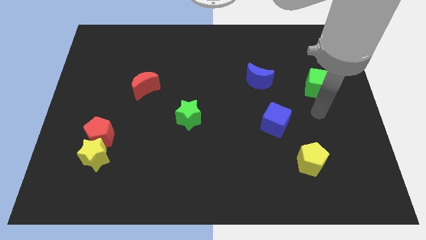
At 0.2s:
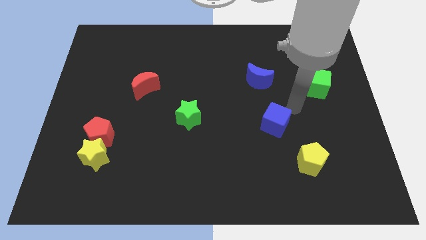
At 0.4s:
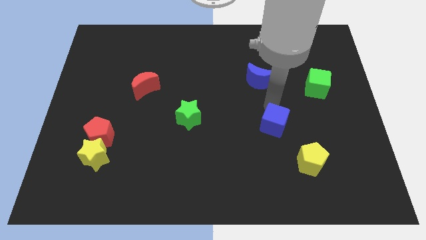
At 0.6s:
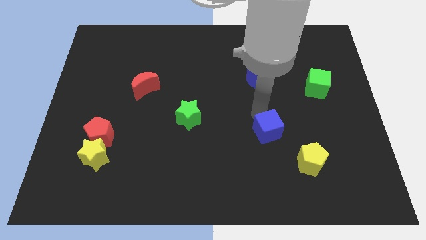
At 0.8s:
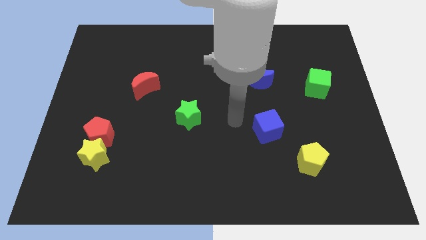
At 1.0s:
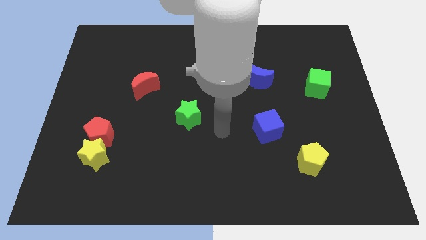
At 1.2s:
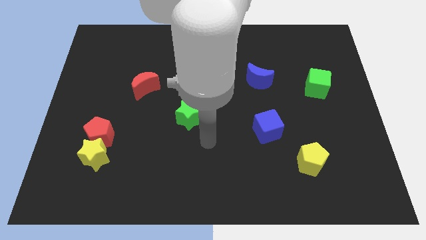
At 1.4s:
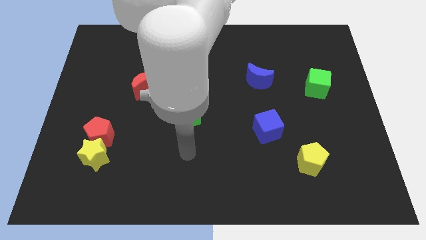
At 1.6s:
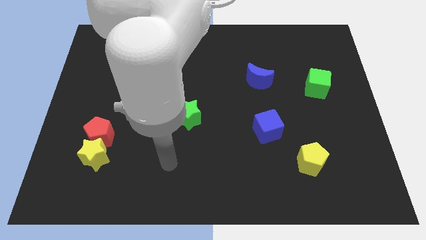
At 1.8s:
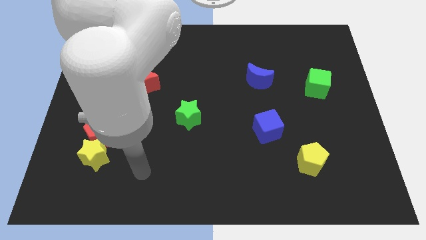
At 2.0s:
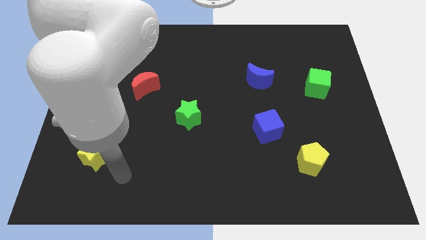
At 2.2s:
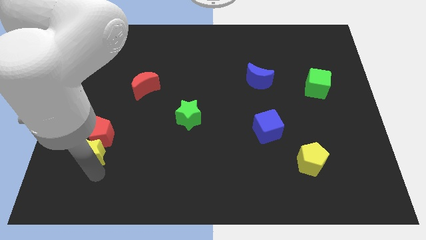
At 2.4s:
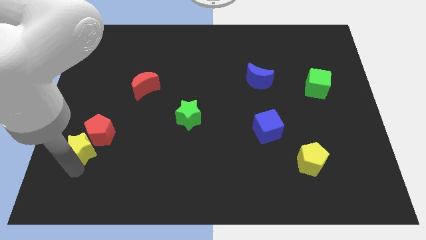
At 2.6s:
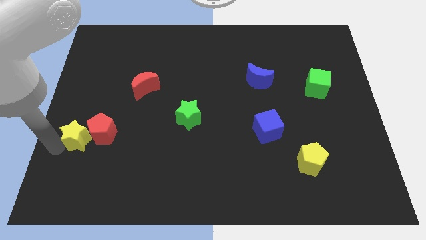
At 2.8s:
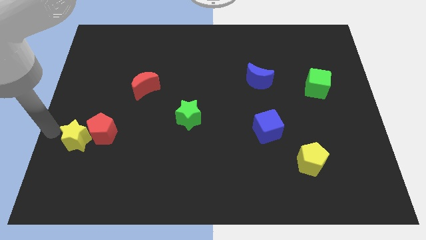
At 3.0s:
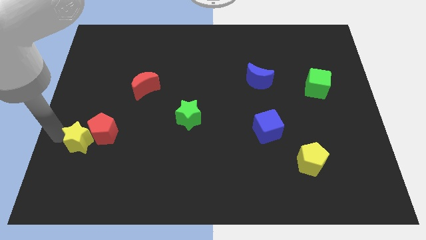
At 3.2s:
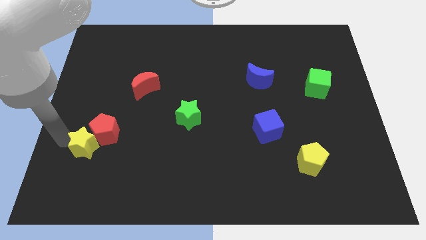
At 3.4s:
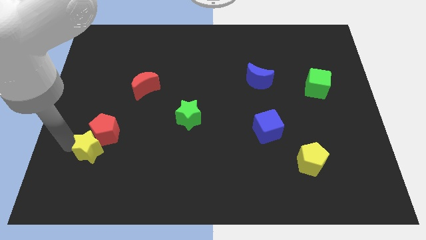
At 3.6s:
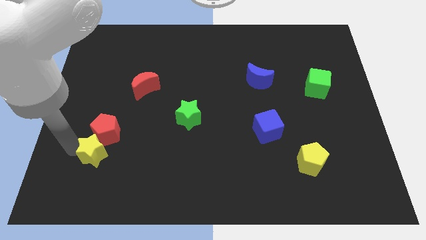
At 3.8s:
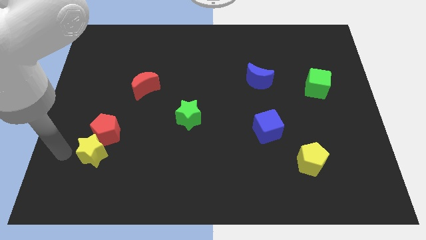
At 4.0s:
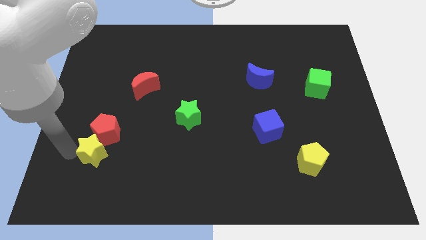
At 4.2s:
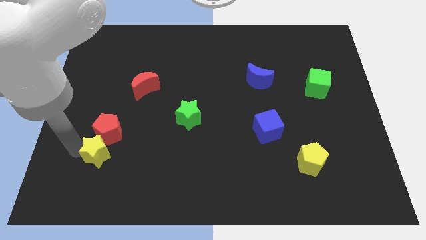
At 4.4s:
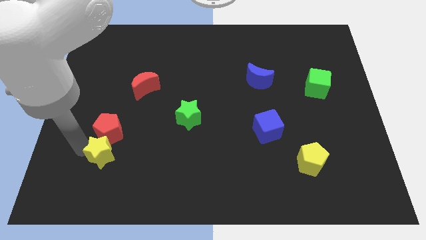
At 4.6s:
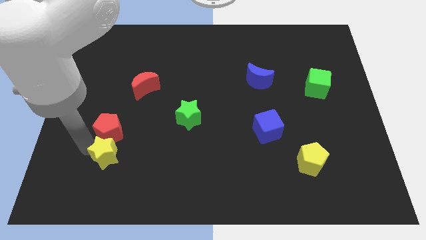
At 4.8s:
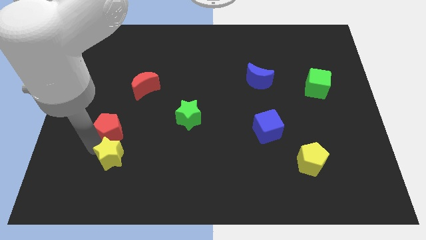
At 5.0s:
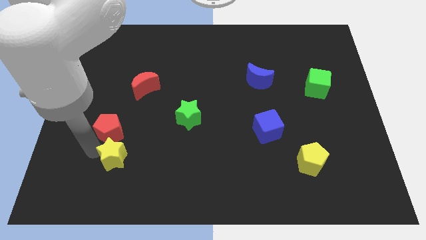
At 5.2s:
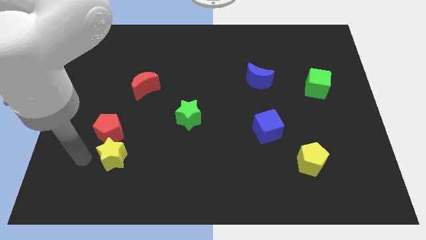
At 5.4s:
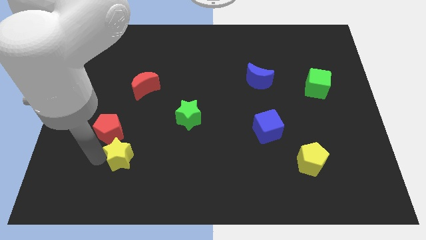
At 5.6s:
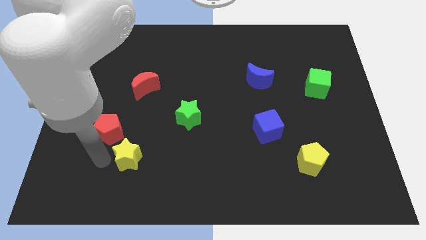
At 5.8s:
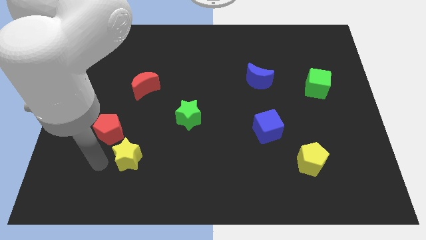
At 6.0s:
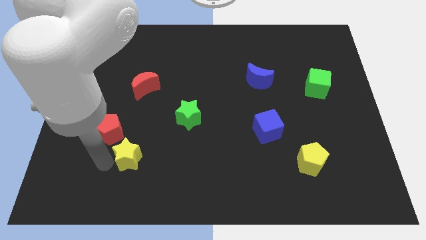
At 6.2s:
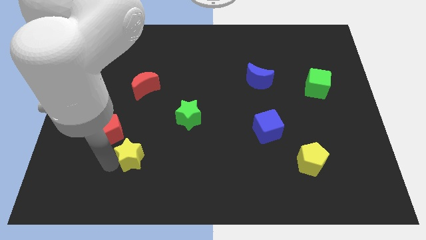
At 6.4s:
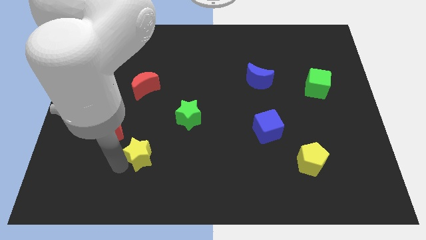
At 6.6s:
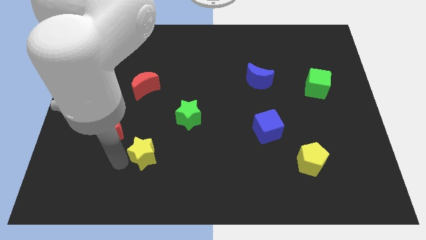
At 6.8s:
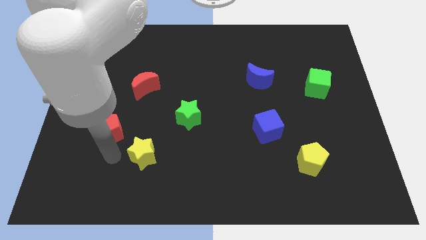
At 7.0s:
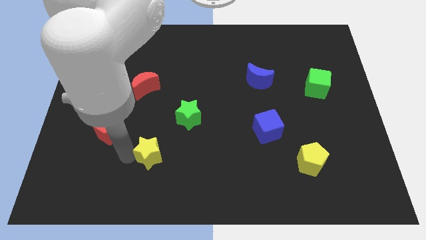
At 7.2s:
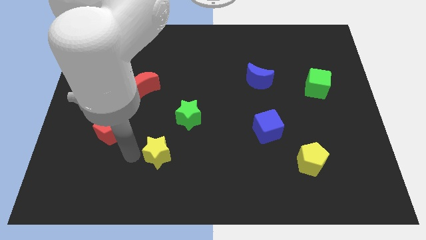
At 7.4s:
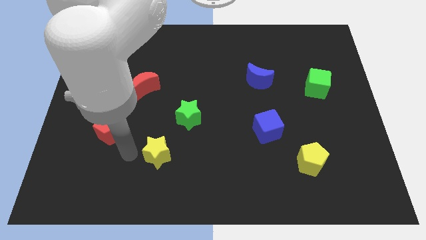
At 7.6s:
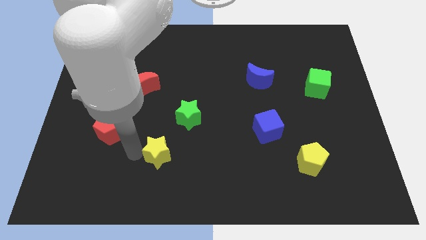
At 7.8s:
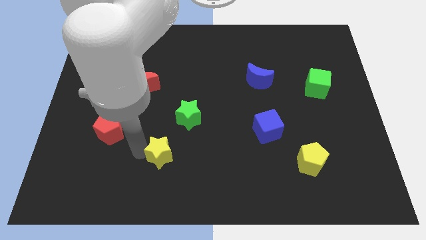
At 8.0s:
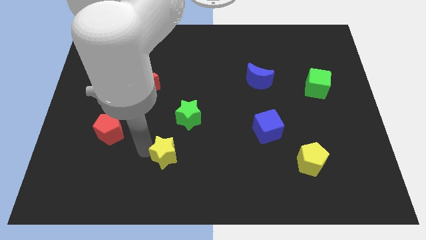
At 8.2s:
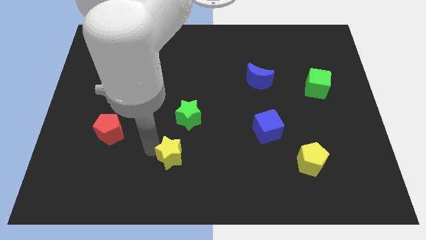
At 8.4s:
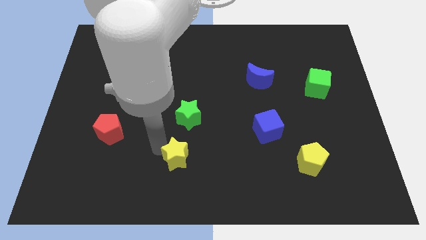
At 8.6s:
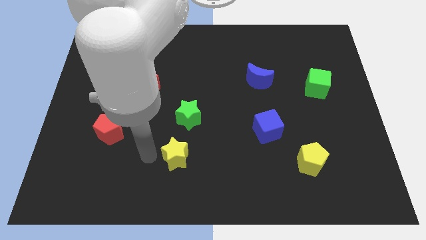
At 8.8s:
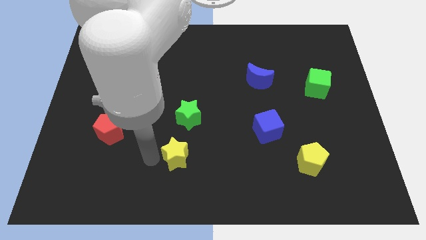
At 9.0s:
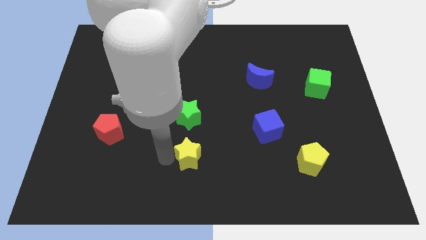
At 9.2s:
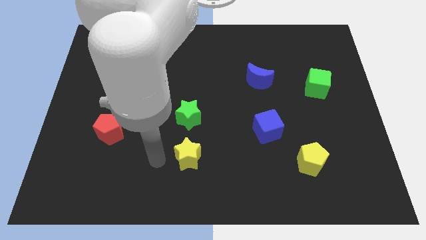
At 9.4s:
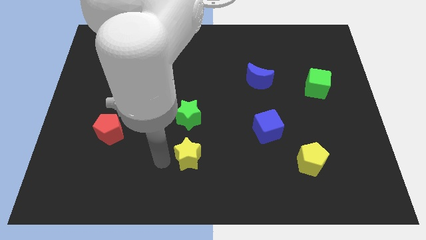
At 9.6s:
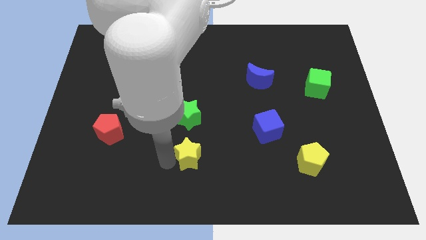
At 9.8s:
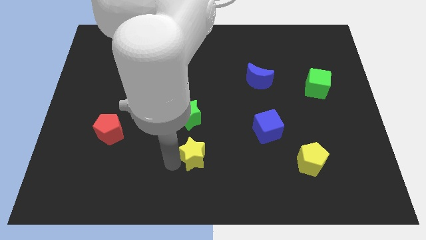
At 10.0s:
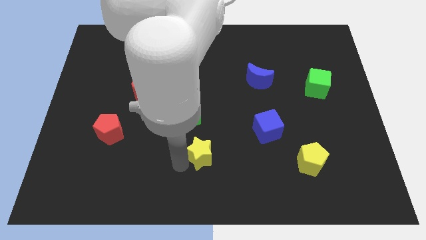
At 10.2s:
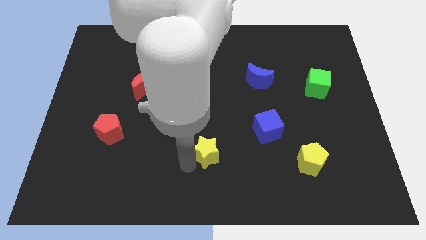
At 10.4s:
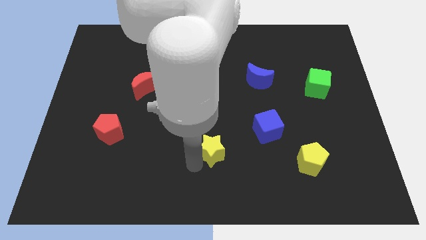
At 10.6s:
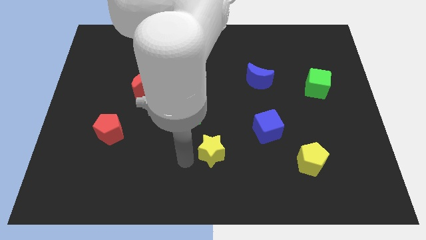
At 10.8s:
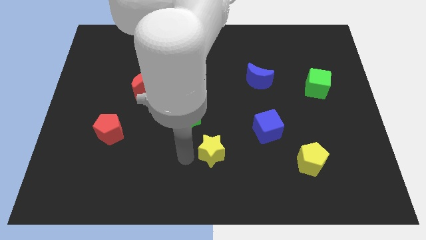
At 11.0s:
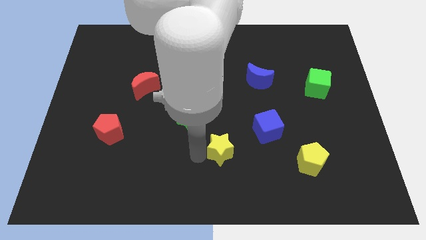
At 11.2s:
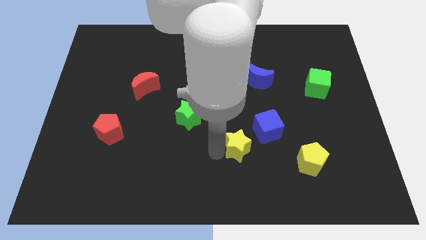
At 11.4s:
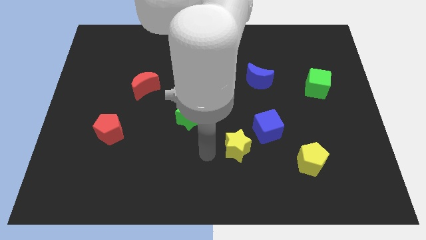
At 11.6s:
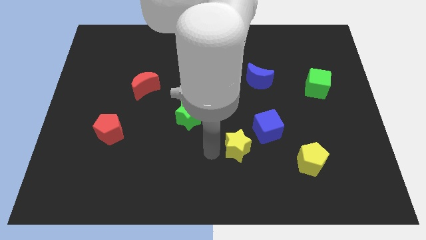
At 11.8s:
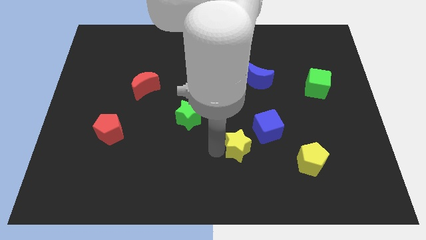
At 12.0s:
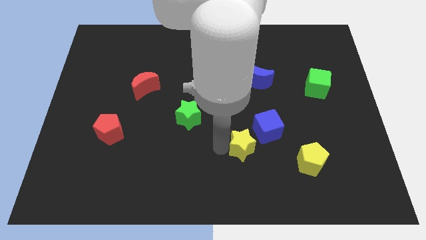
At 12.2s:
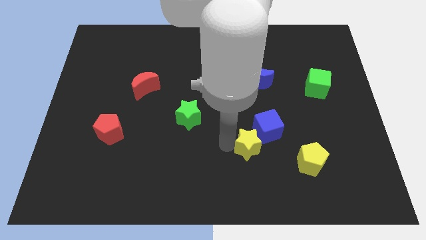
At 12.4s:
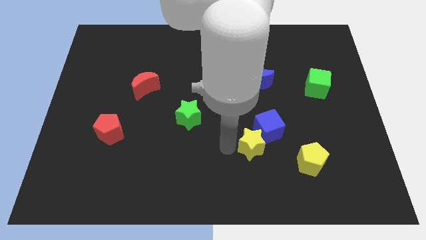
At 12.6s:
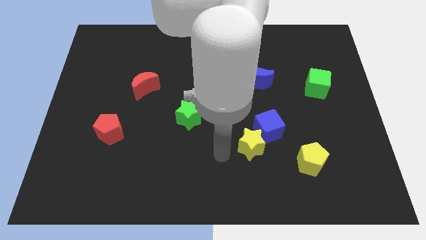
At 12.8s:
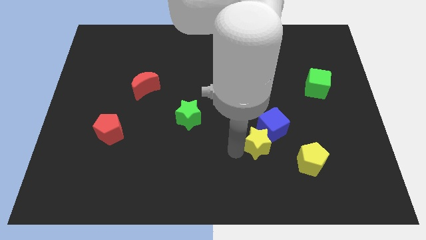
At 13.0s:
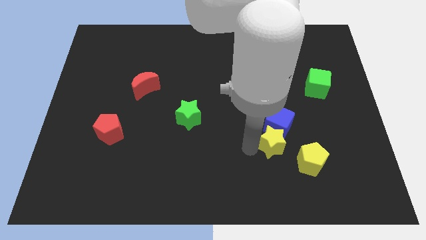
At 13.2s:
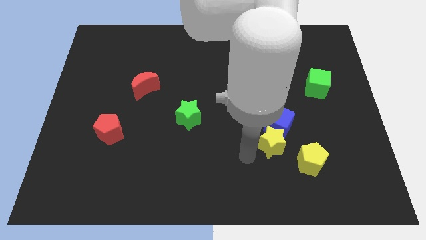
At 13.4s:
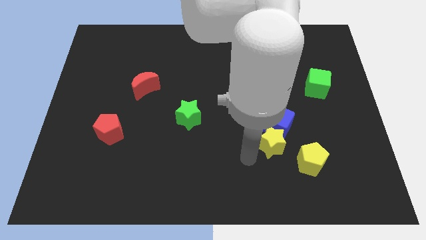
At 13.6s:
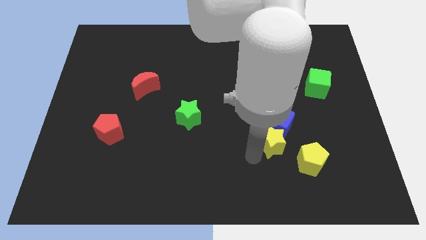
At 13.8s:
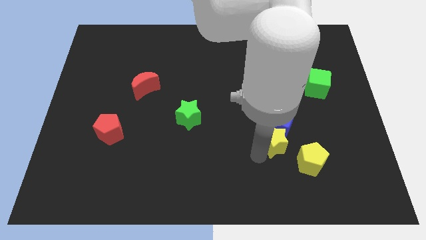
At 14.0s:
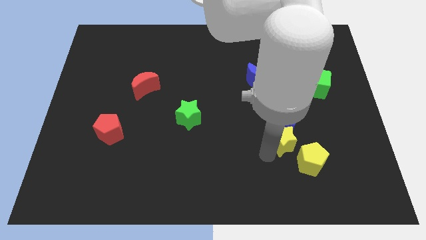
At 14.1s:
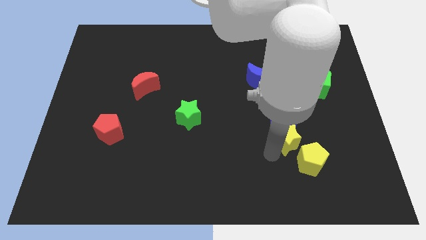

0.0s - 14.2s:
slide the yellow star above the yellow pentagon

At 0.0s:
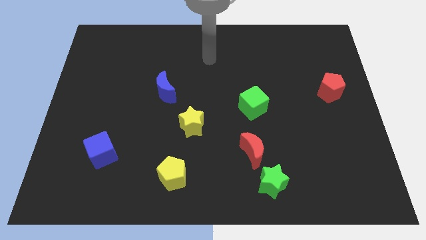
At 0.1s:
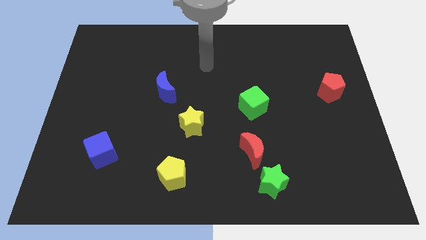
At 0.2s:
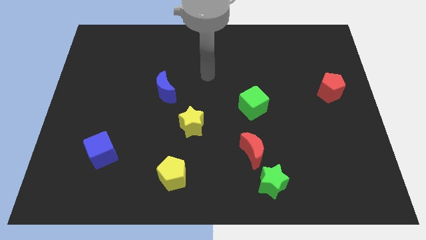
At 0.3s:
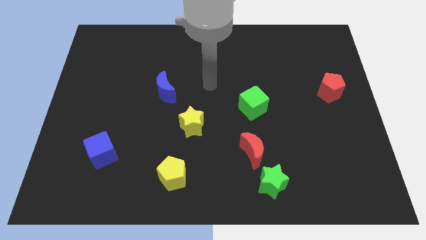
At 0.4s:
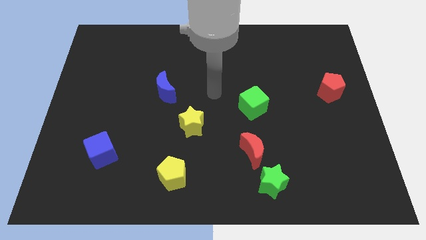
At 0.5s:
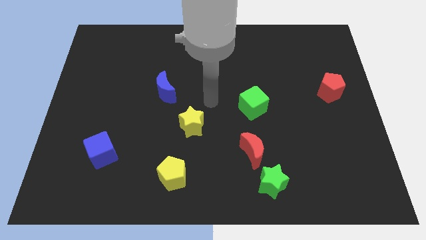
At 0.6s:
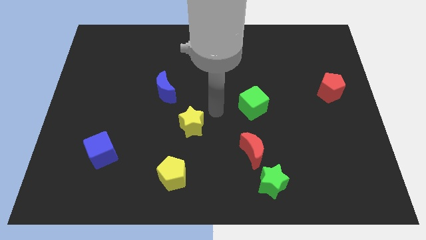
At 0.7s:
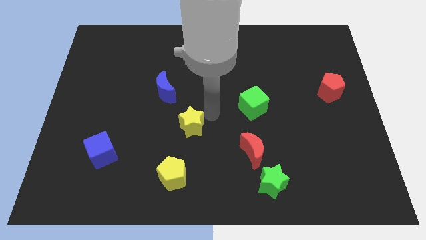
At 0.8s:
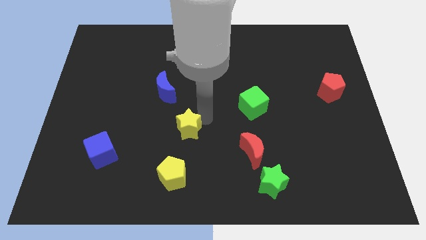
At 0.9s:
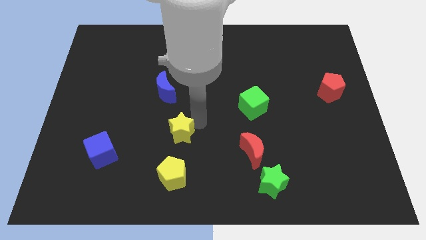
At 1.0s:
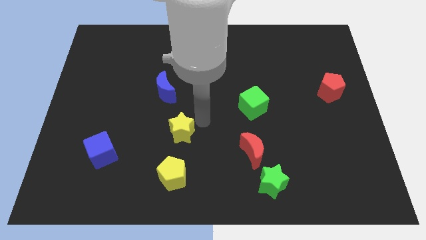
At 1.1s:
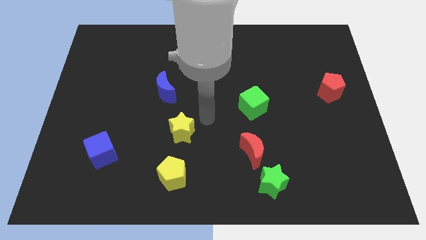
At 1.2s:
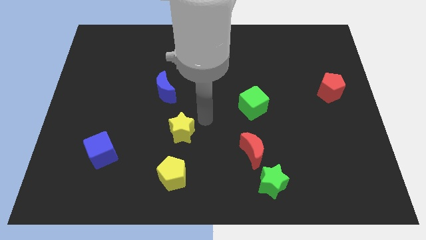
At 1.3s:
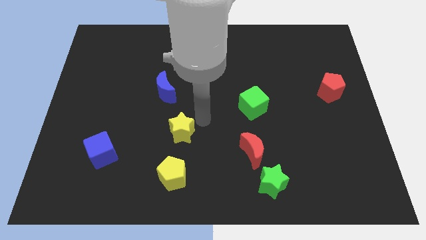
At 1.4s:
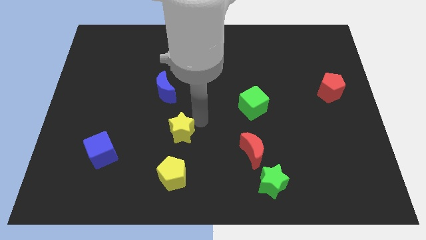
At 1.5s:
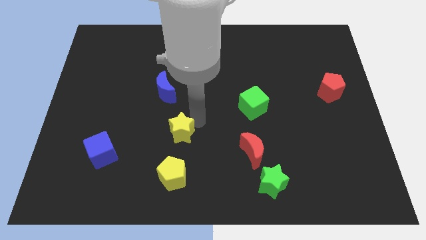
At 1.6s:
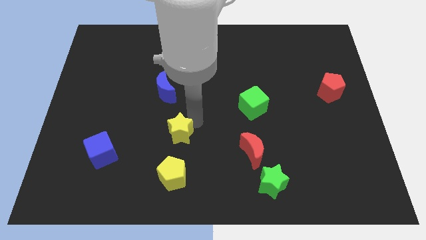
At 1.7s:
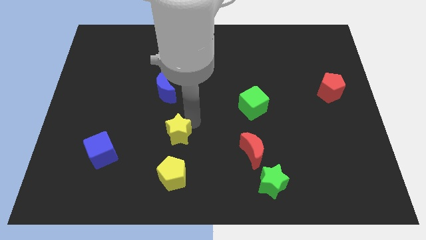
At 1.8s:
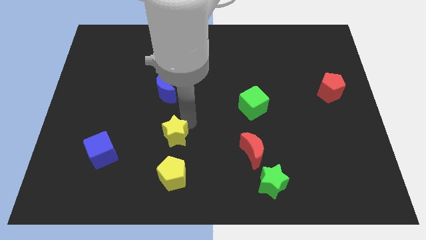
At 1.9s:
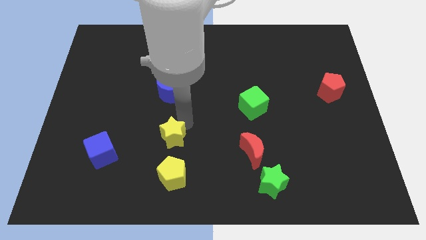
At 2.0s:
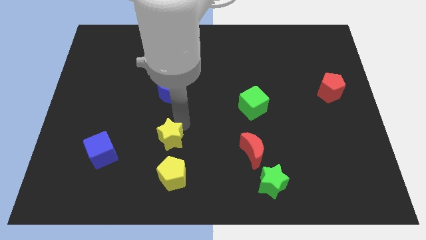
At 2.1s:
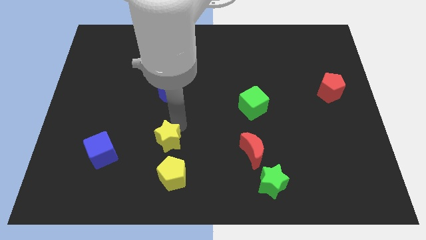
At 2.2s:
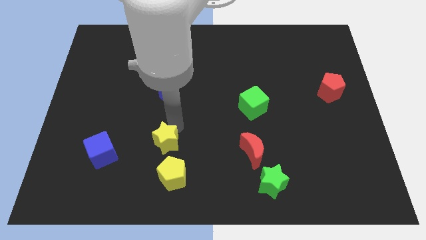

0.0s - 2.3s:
slide the yellow star to the top left side of the yellow pentagon
